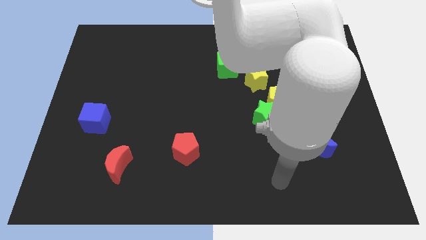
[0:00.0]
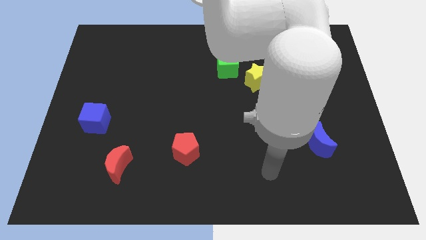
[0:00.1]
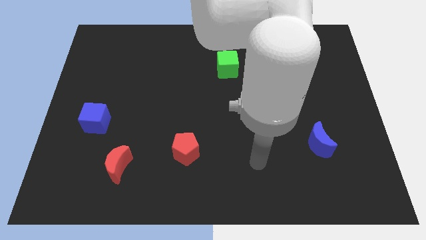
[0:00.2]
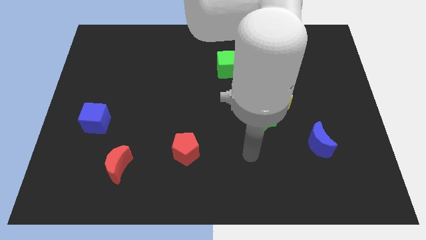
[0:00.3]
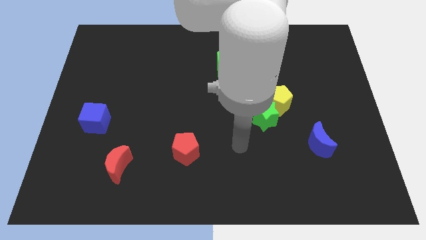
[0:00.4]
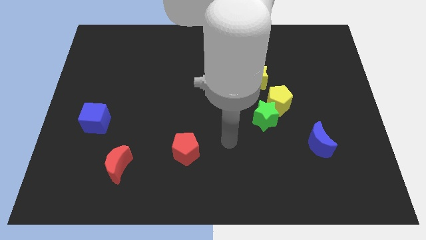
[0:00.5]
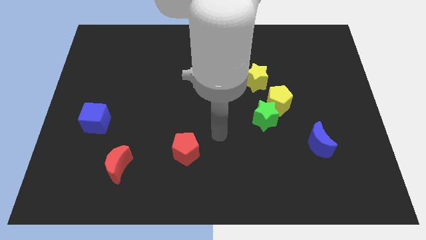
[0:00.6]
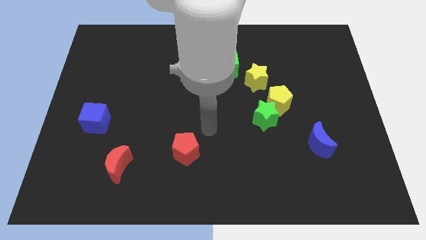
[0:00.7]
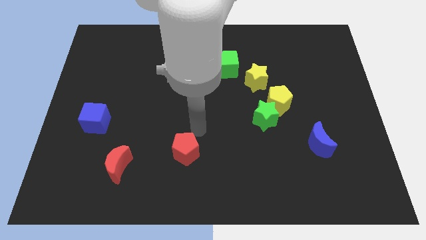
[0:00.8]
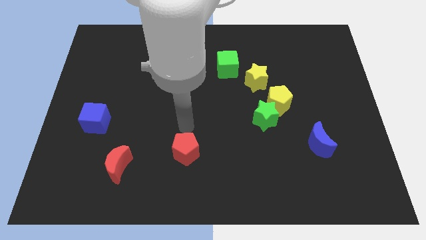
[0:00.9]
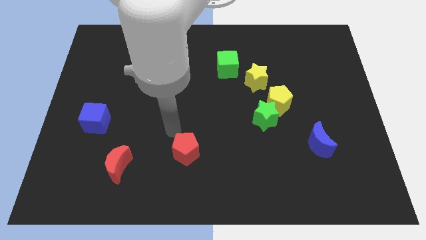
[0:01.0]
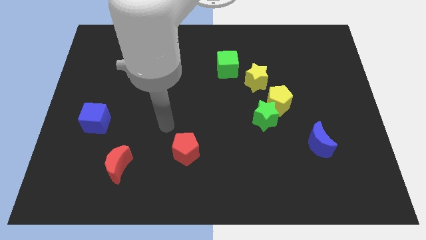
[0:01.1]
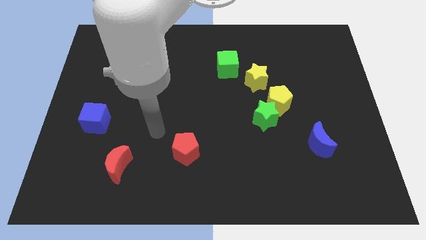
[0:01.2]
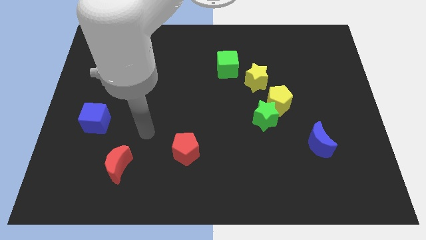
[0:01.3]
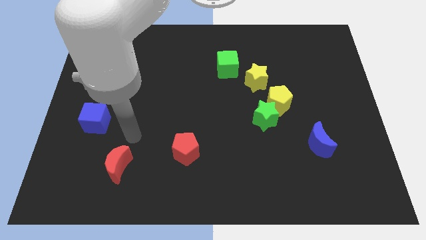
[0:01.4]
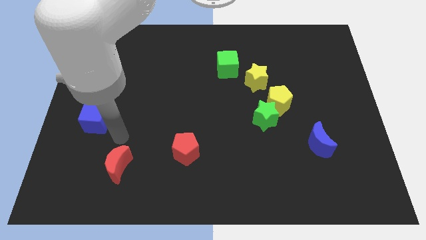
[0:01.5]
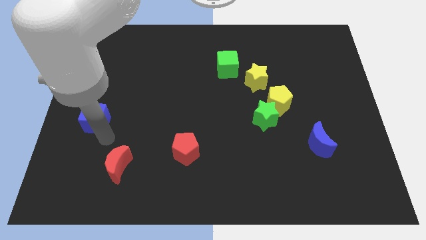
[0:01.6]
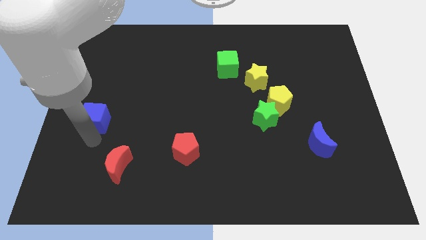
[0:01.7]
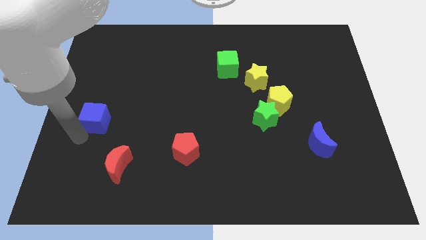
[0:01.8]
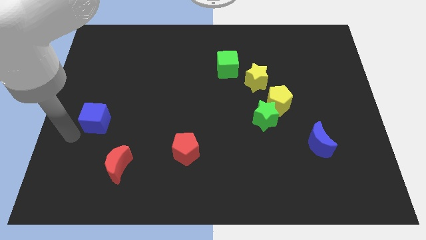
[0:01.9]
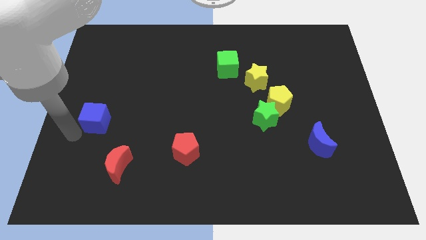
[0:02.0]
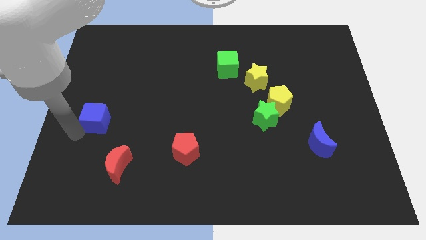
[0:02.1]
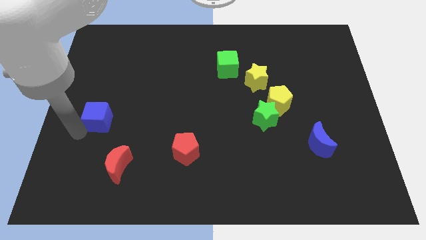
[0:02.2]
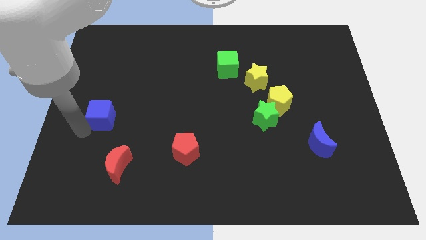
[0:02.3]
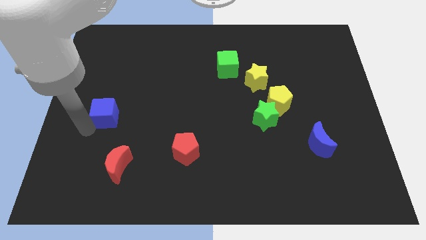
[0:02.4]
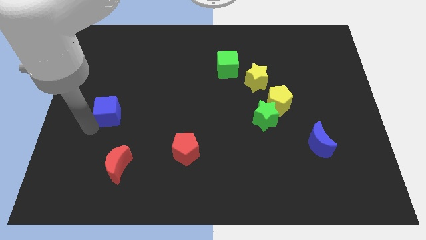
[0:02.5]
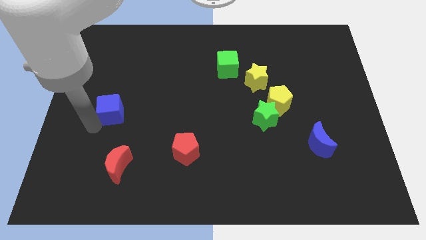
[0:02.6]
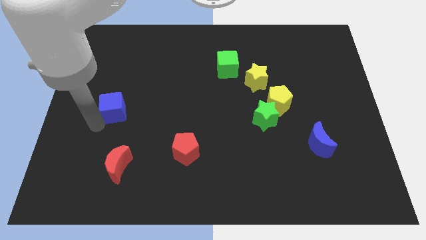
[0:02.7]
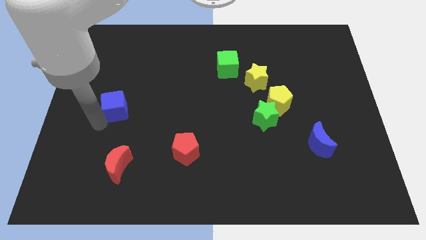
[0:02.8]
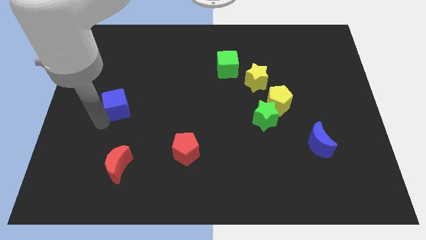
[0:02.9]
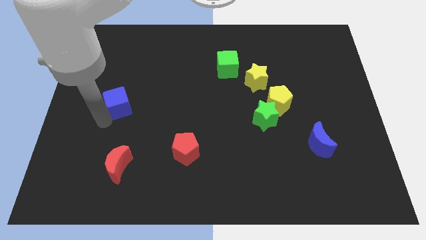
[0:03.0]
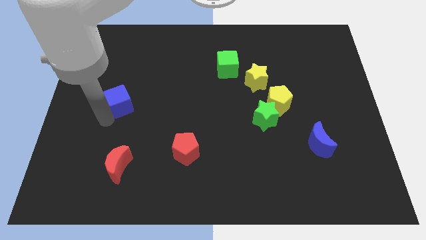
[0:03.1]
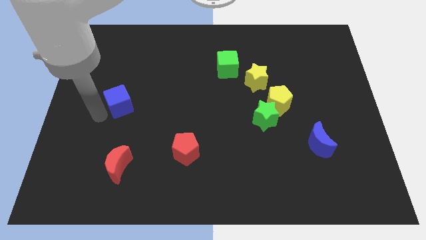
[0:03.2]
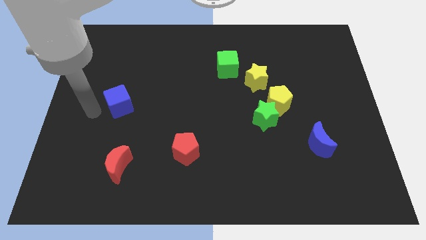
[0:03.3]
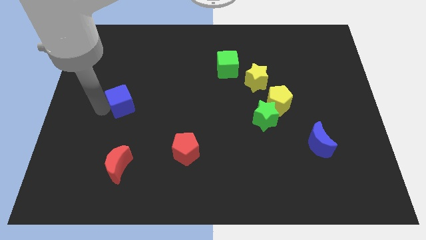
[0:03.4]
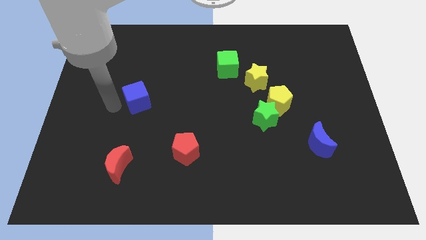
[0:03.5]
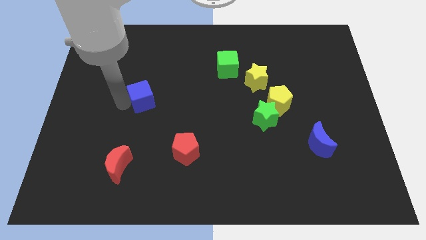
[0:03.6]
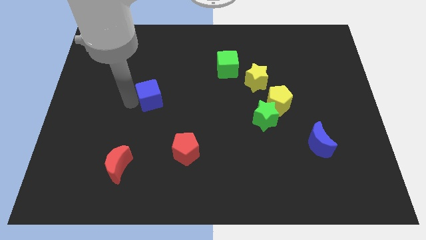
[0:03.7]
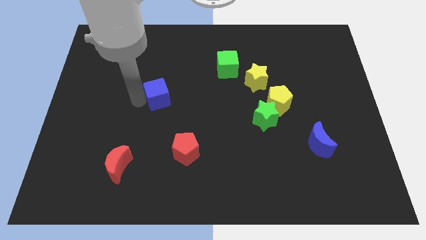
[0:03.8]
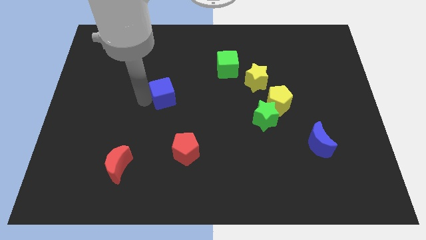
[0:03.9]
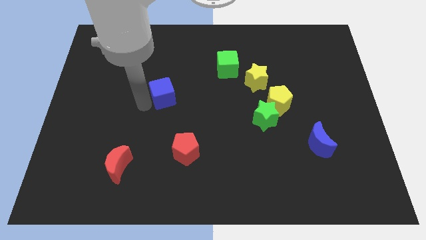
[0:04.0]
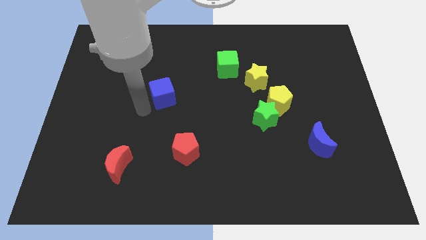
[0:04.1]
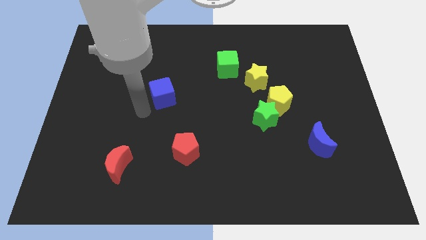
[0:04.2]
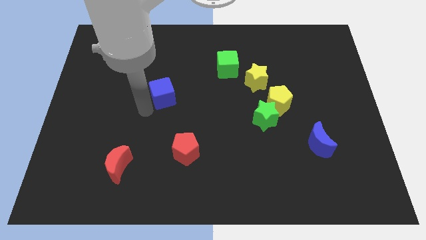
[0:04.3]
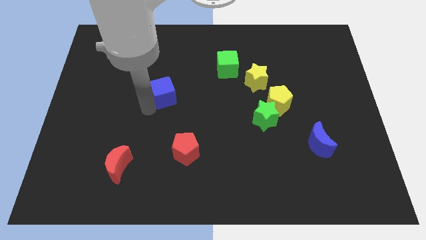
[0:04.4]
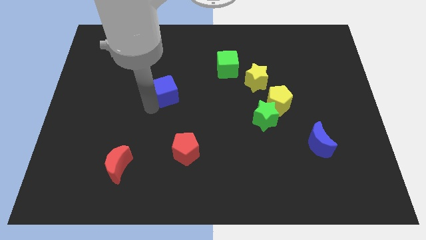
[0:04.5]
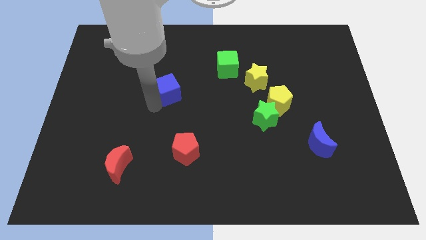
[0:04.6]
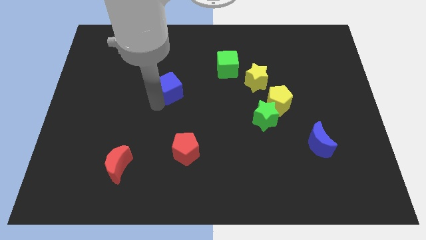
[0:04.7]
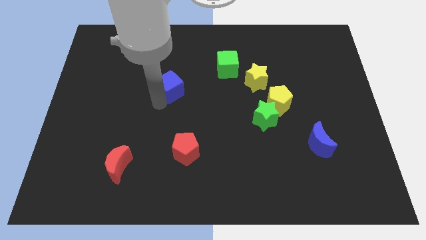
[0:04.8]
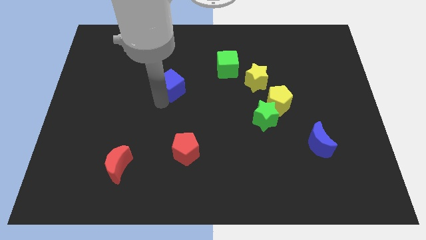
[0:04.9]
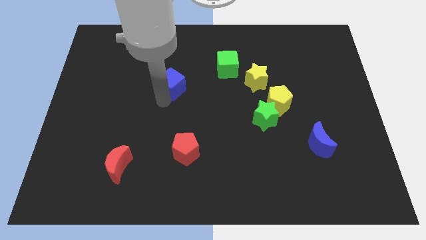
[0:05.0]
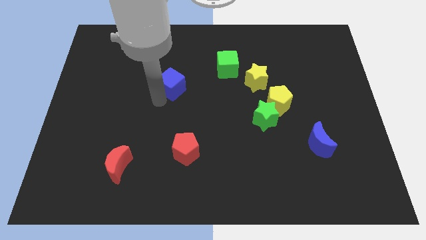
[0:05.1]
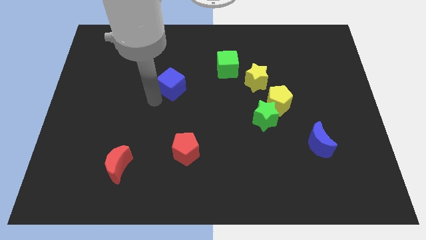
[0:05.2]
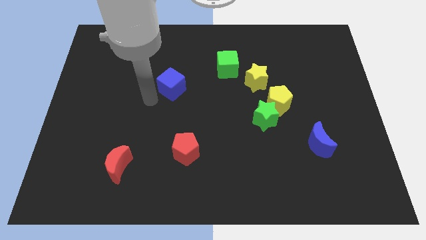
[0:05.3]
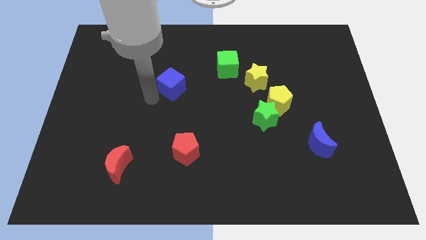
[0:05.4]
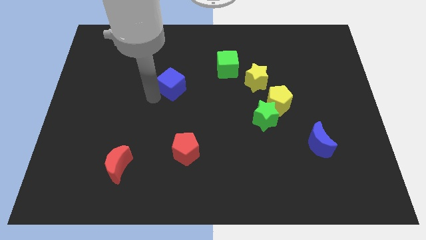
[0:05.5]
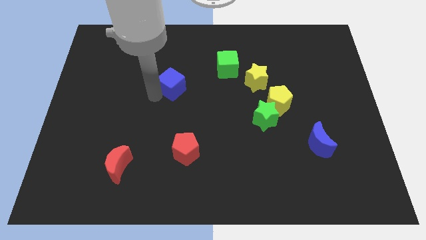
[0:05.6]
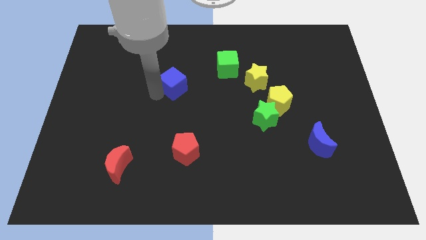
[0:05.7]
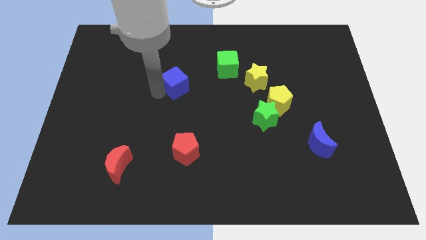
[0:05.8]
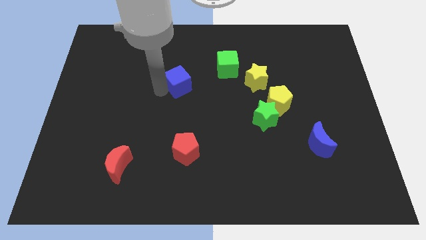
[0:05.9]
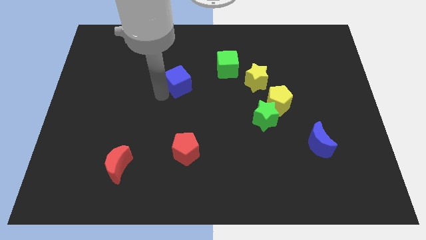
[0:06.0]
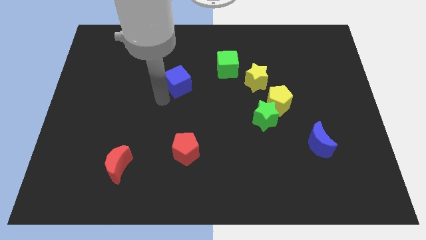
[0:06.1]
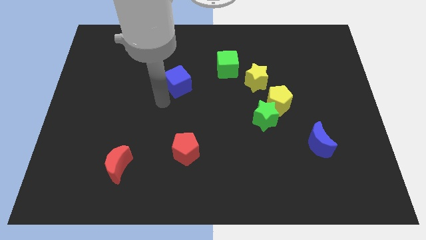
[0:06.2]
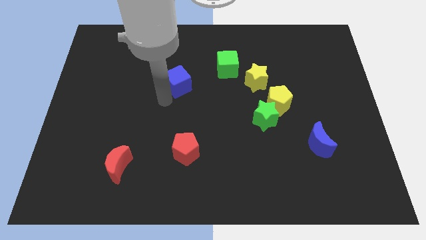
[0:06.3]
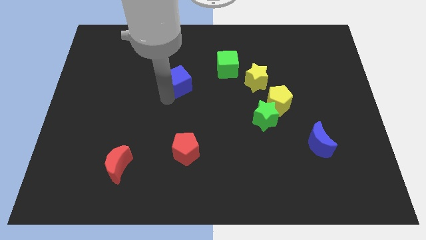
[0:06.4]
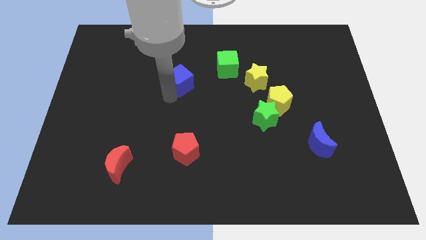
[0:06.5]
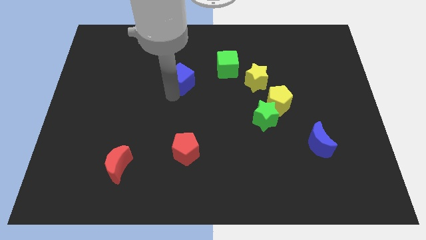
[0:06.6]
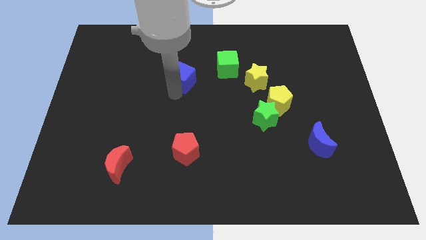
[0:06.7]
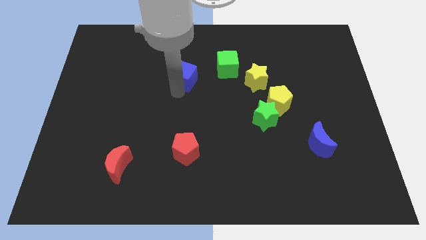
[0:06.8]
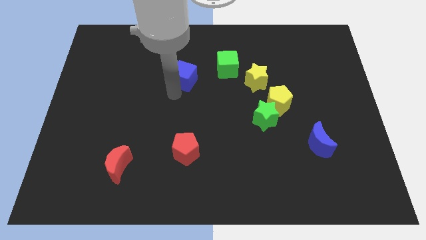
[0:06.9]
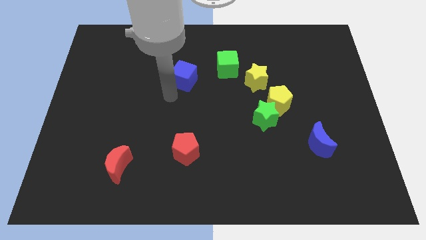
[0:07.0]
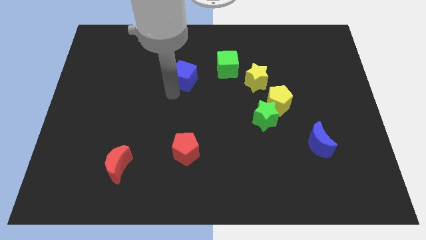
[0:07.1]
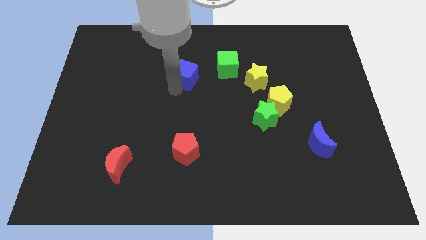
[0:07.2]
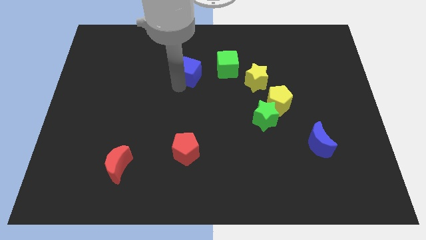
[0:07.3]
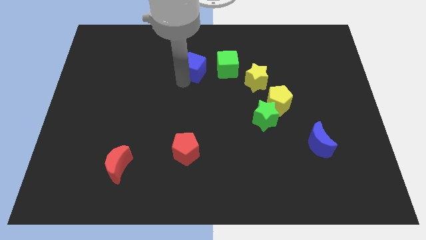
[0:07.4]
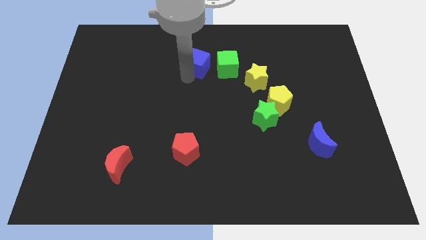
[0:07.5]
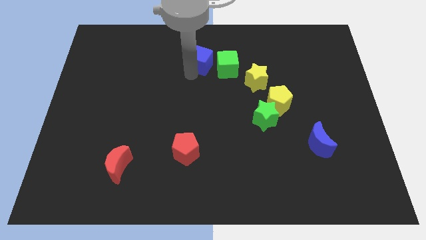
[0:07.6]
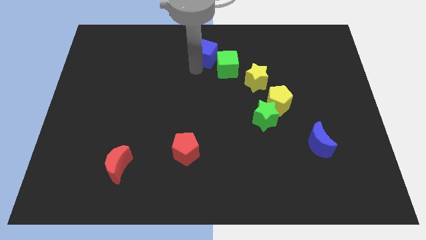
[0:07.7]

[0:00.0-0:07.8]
slide the blue cube to the top side
